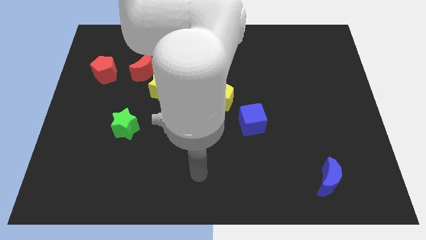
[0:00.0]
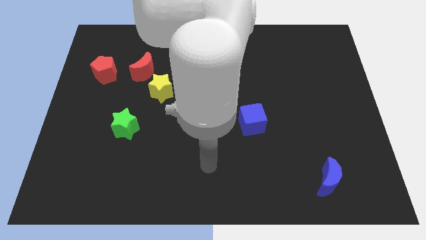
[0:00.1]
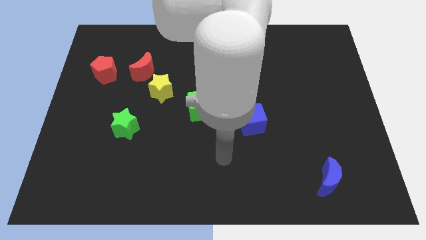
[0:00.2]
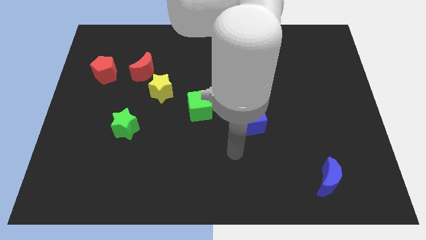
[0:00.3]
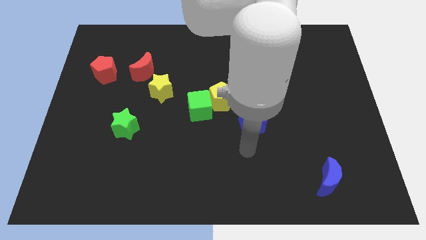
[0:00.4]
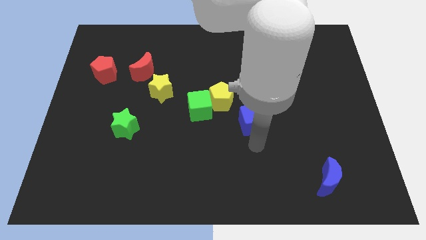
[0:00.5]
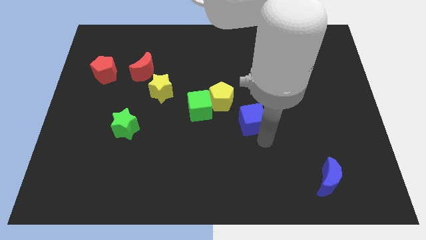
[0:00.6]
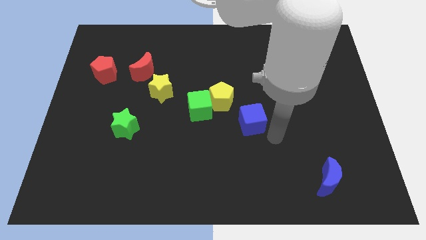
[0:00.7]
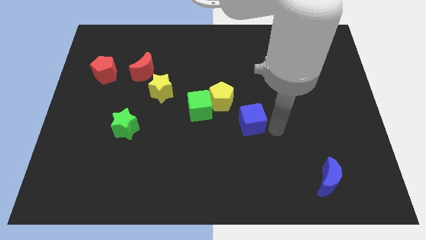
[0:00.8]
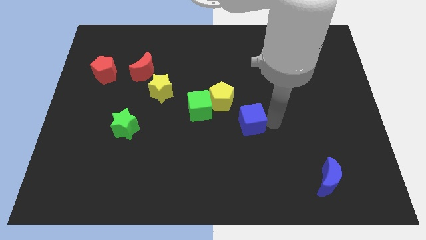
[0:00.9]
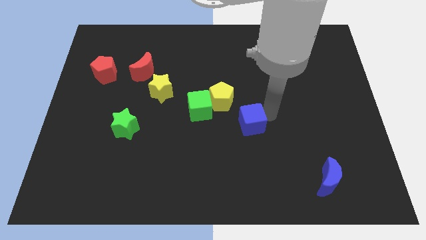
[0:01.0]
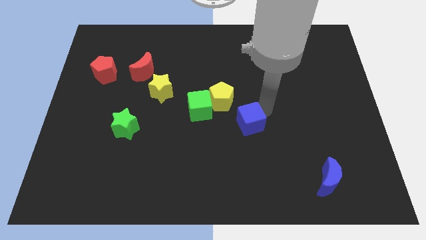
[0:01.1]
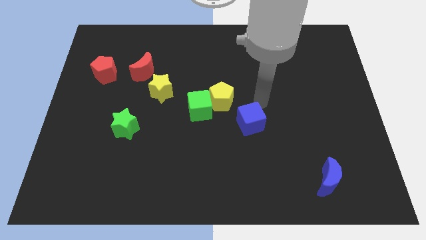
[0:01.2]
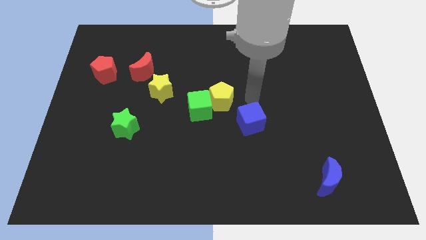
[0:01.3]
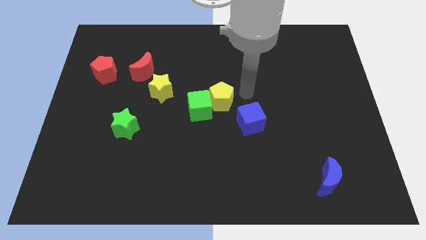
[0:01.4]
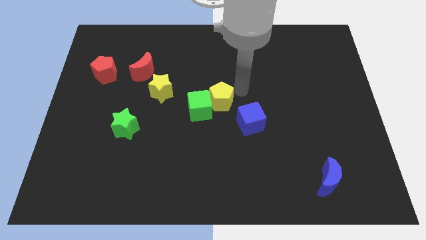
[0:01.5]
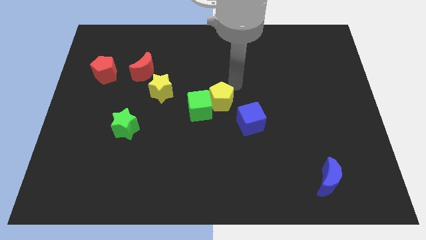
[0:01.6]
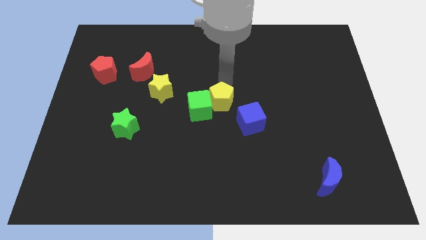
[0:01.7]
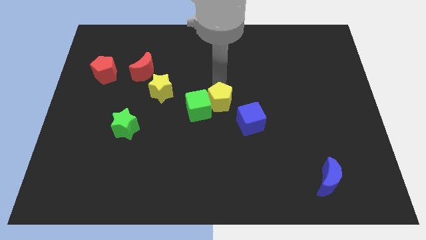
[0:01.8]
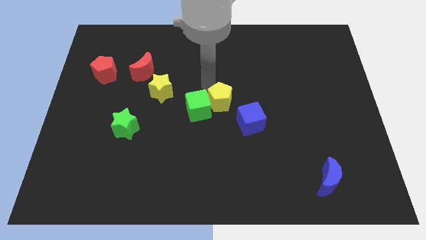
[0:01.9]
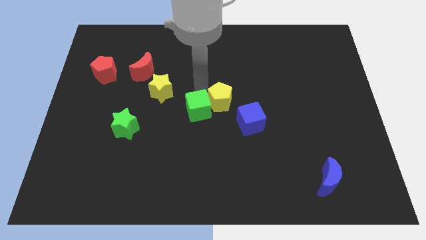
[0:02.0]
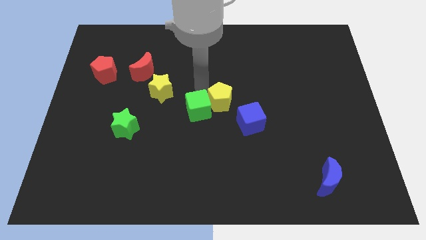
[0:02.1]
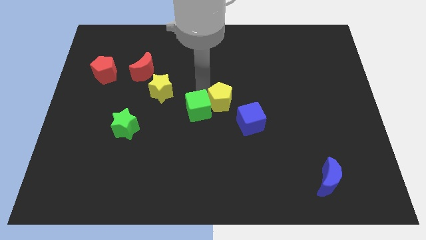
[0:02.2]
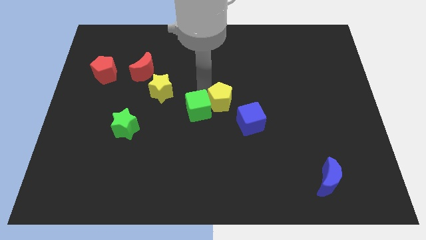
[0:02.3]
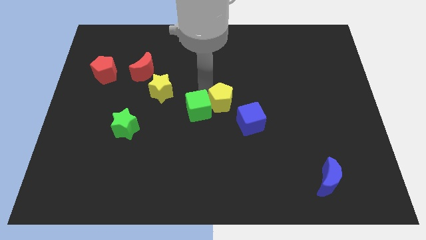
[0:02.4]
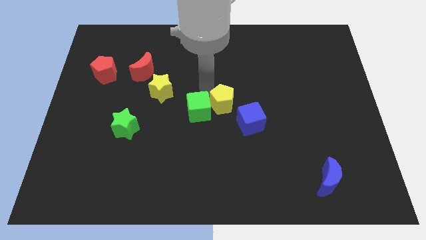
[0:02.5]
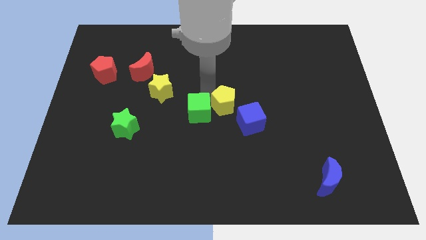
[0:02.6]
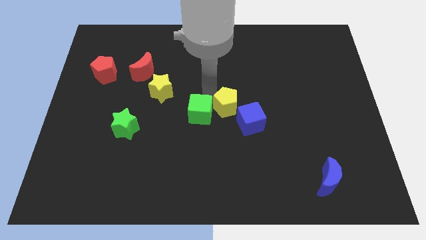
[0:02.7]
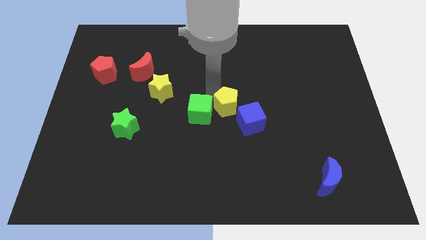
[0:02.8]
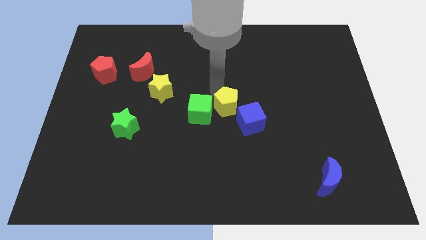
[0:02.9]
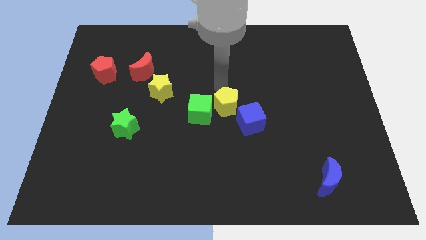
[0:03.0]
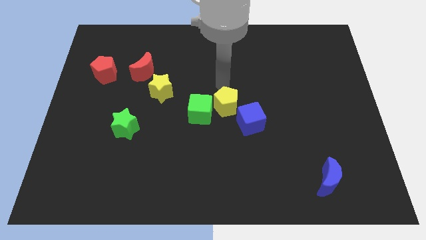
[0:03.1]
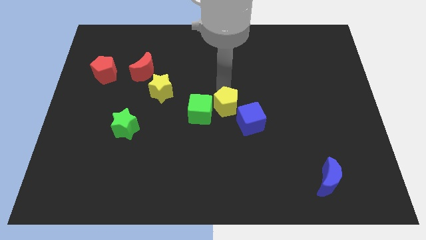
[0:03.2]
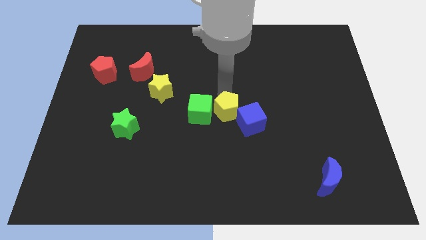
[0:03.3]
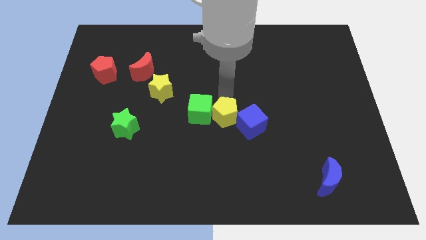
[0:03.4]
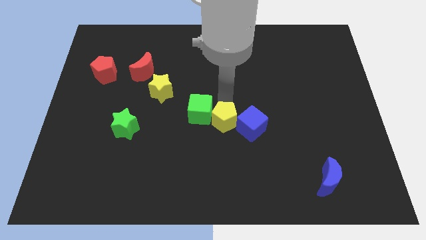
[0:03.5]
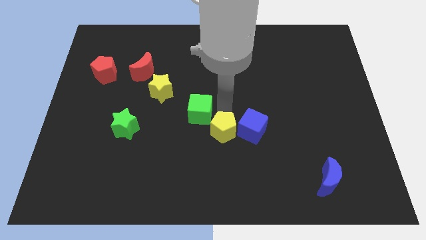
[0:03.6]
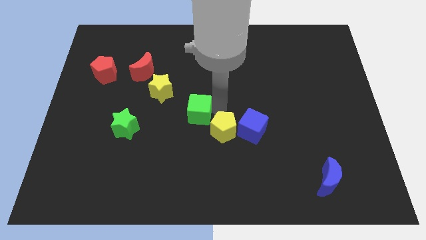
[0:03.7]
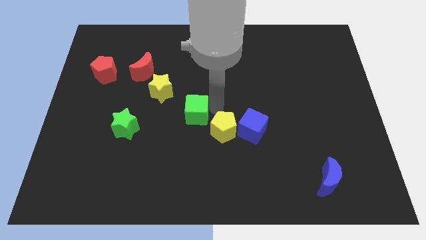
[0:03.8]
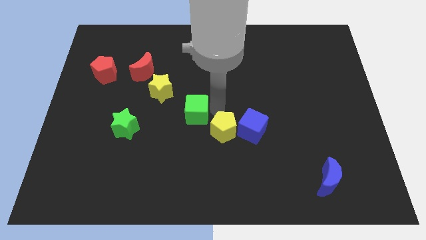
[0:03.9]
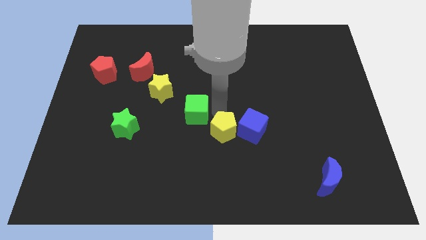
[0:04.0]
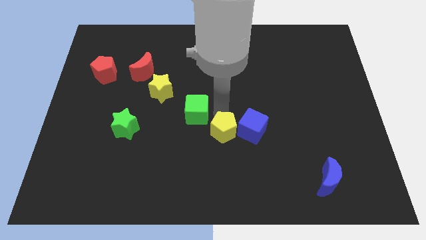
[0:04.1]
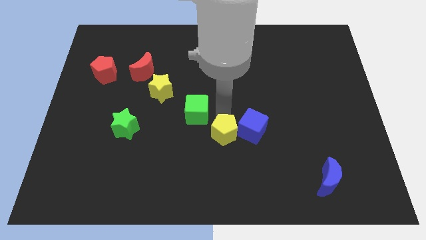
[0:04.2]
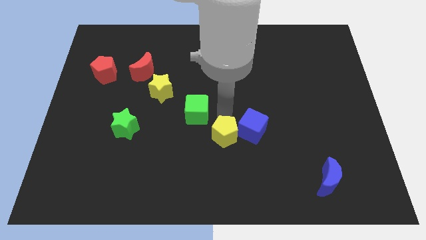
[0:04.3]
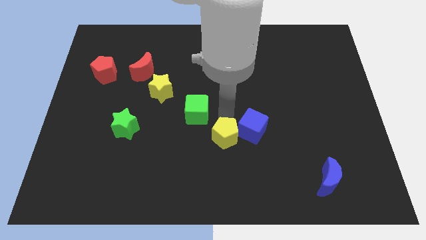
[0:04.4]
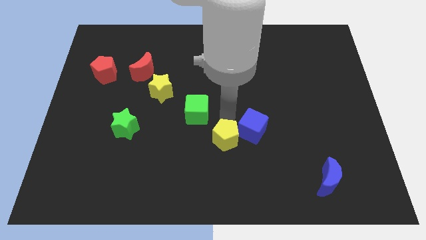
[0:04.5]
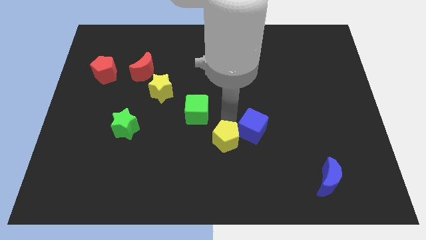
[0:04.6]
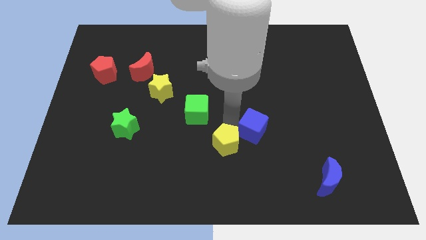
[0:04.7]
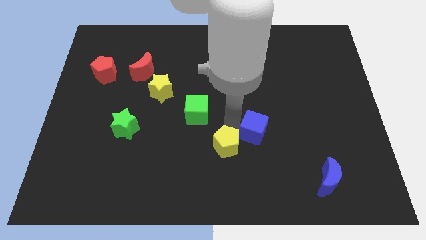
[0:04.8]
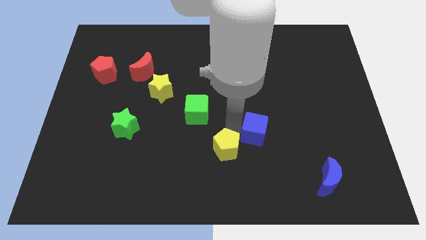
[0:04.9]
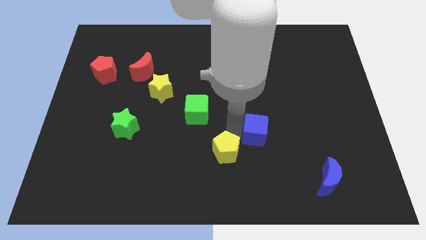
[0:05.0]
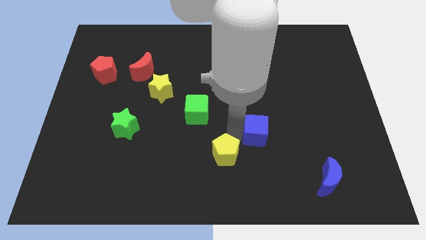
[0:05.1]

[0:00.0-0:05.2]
put the yellow pentagon to the bottom

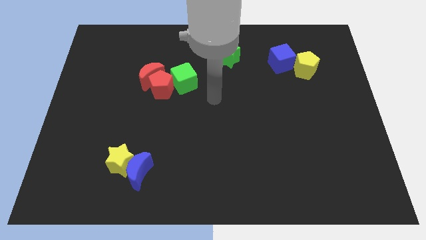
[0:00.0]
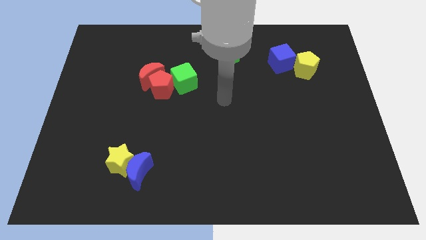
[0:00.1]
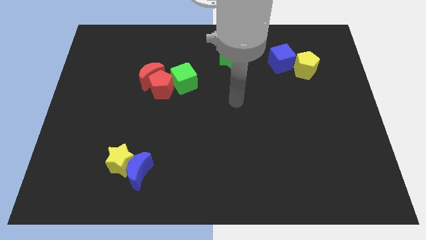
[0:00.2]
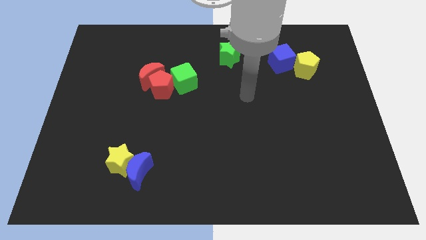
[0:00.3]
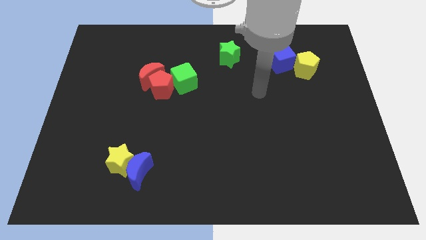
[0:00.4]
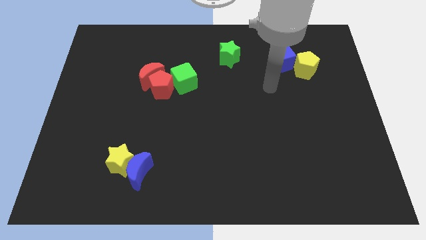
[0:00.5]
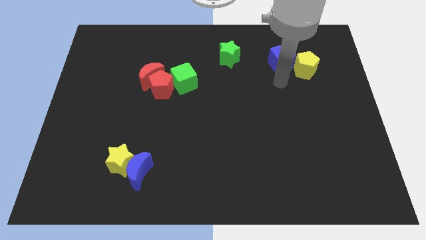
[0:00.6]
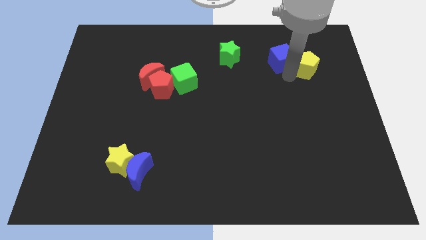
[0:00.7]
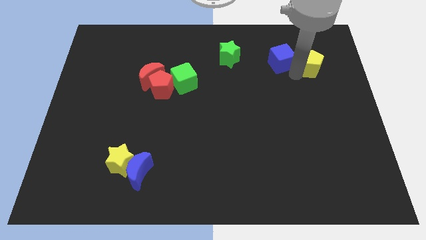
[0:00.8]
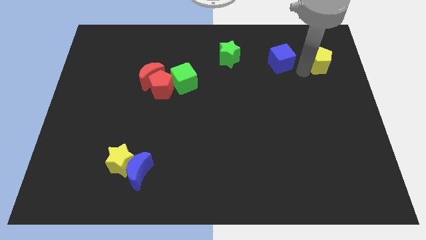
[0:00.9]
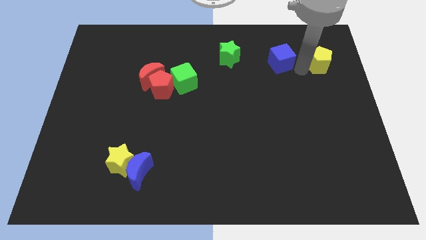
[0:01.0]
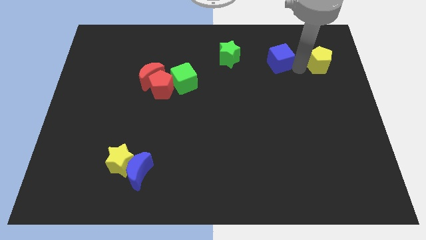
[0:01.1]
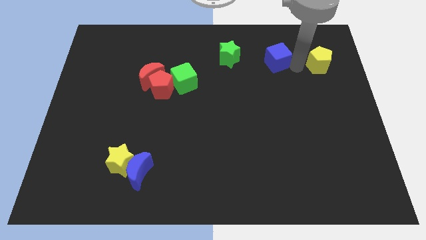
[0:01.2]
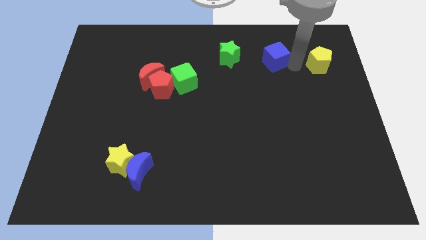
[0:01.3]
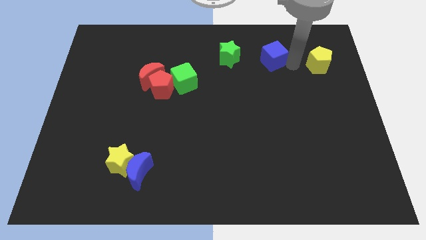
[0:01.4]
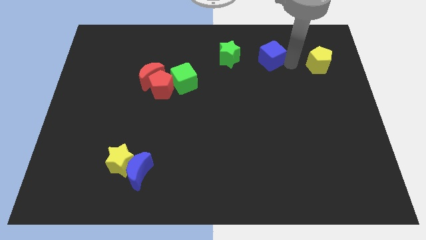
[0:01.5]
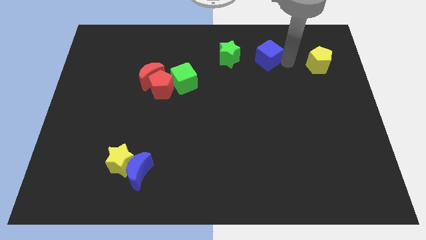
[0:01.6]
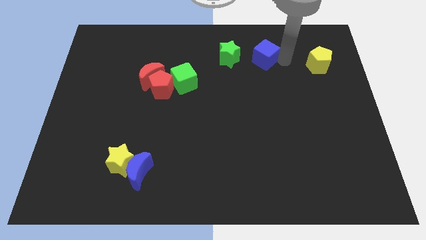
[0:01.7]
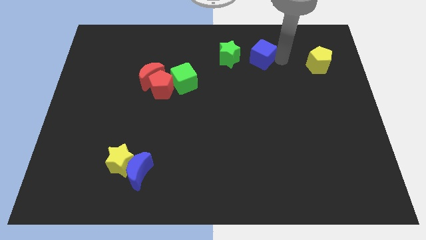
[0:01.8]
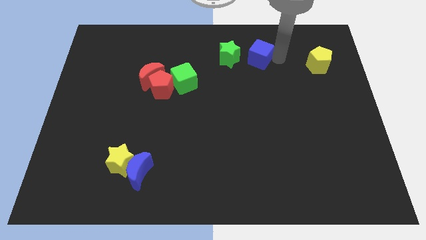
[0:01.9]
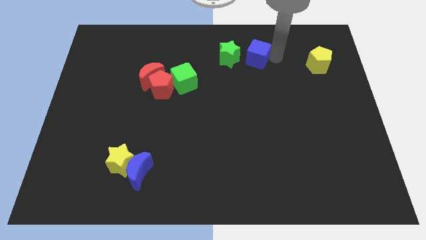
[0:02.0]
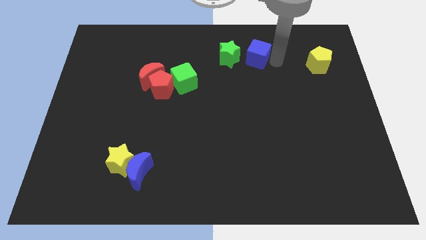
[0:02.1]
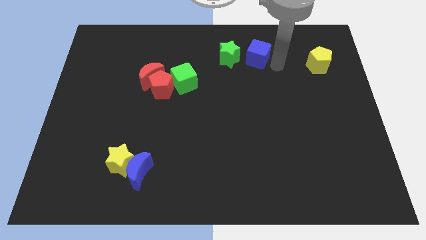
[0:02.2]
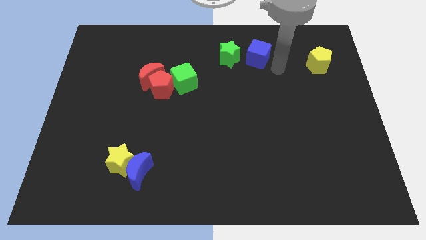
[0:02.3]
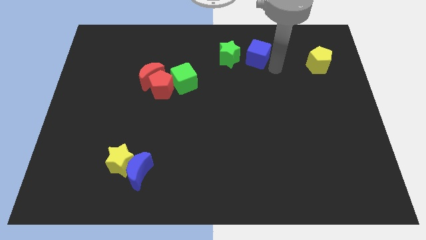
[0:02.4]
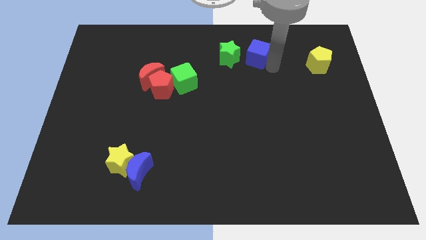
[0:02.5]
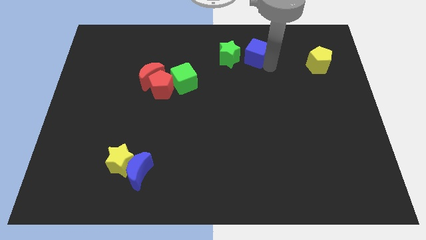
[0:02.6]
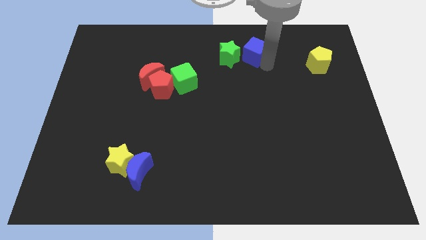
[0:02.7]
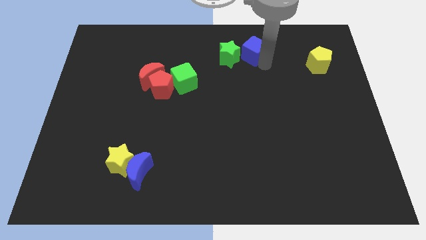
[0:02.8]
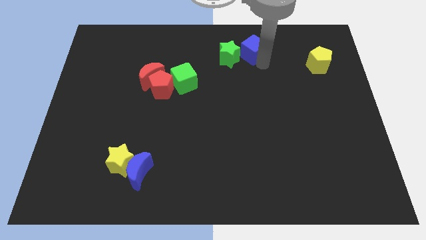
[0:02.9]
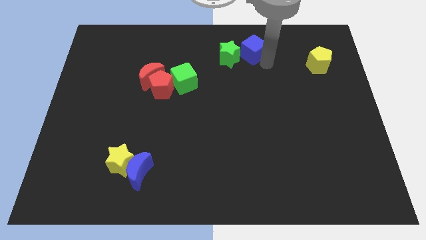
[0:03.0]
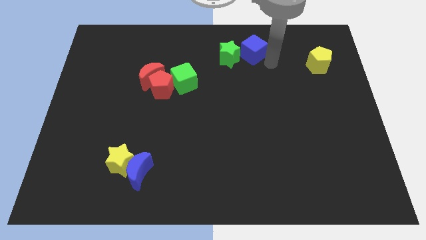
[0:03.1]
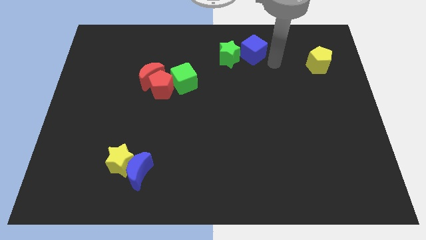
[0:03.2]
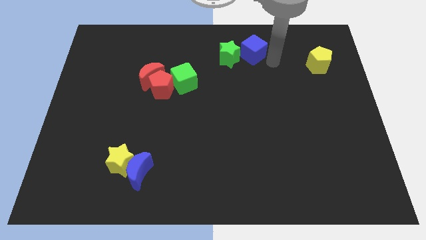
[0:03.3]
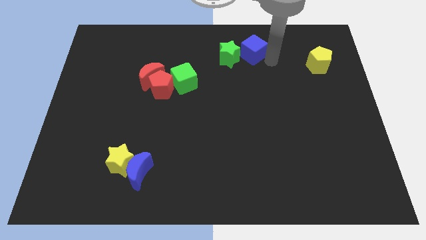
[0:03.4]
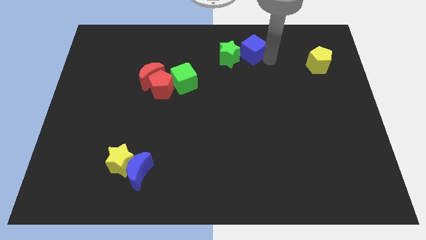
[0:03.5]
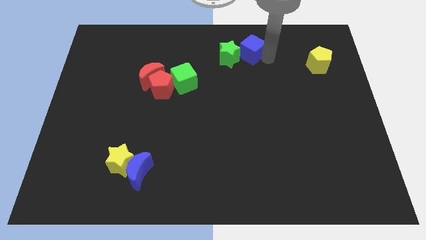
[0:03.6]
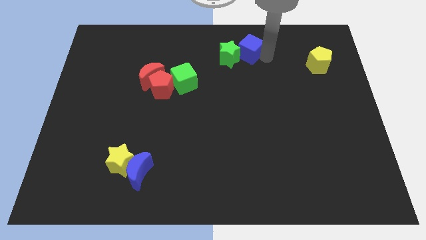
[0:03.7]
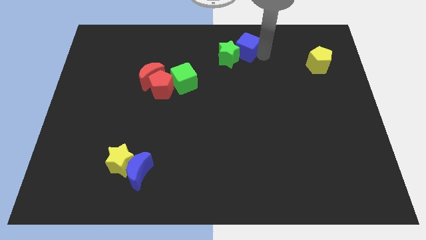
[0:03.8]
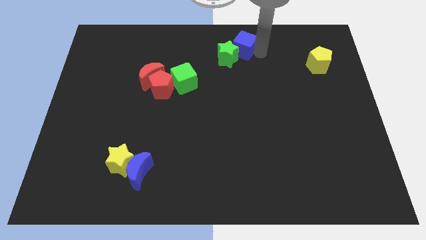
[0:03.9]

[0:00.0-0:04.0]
slide the blue cube to the top
